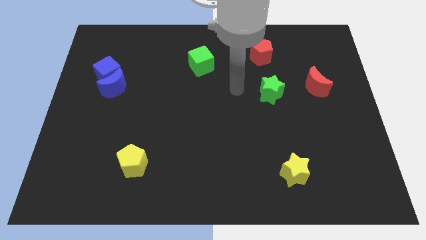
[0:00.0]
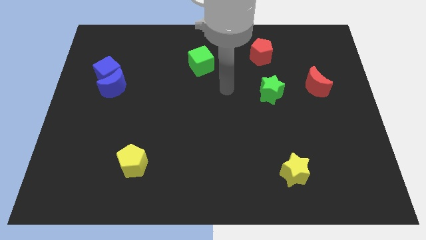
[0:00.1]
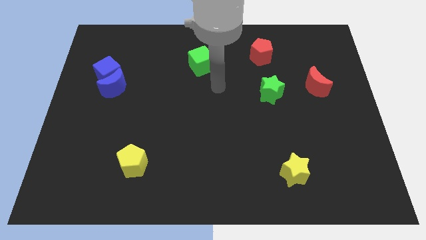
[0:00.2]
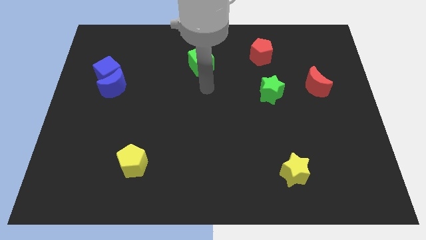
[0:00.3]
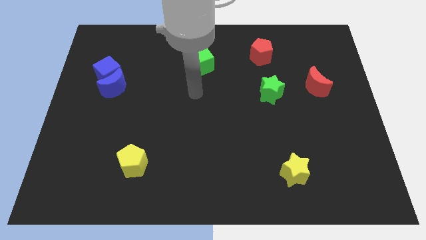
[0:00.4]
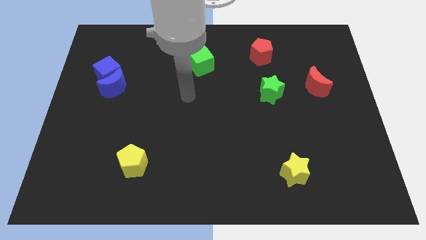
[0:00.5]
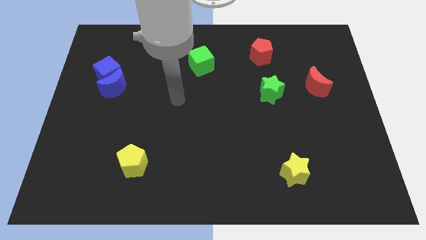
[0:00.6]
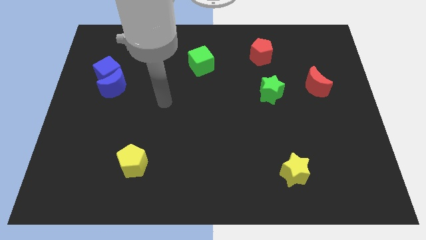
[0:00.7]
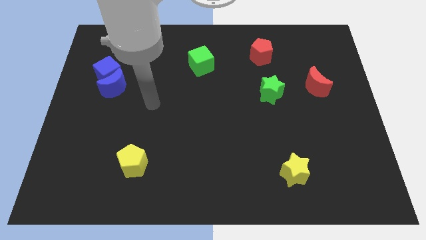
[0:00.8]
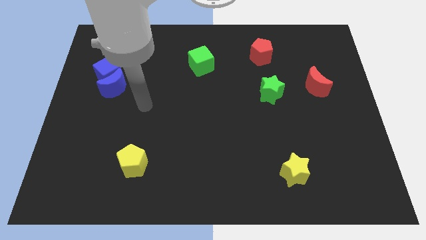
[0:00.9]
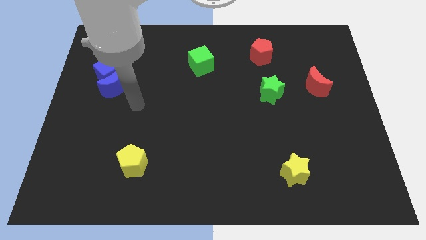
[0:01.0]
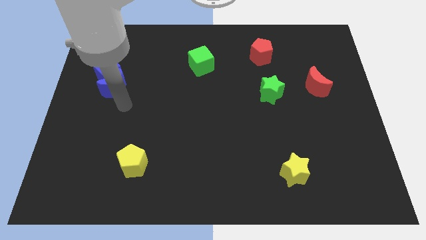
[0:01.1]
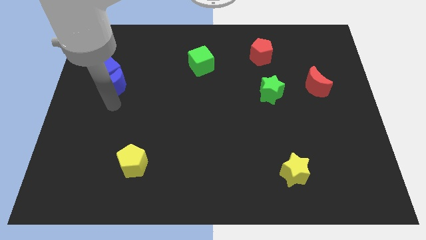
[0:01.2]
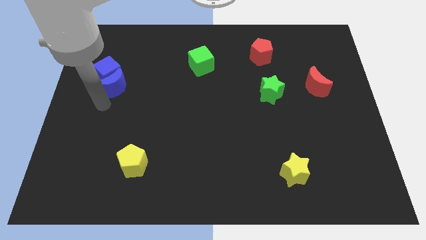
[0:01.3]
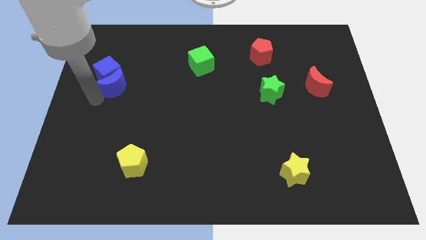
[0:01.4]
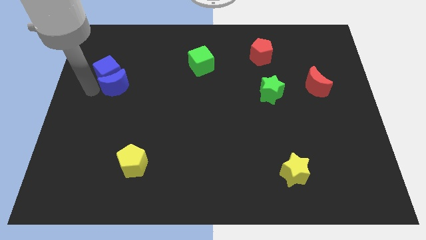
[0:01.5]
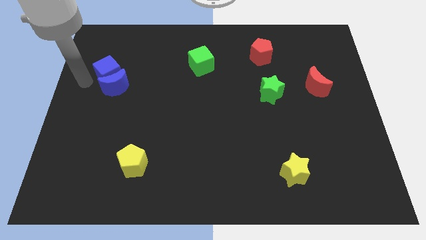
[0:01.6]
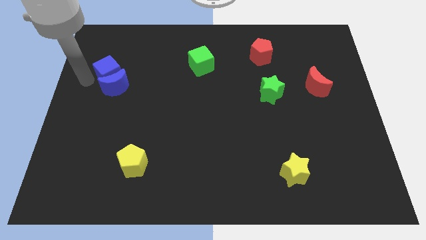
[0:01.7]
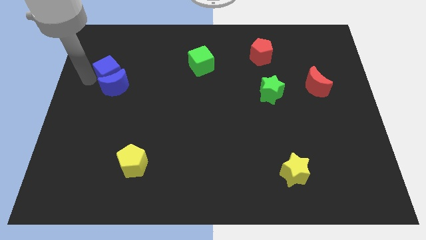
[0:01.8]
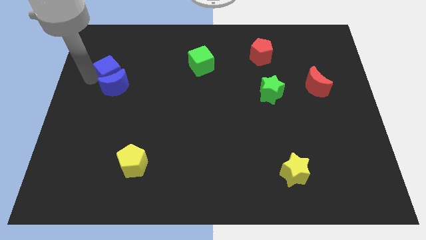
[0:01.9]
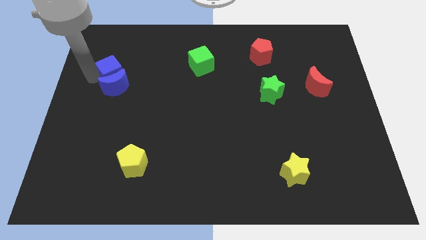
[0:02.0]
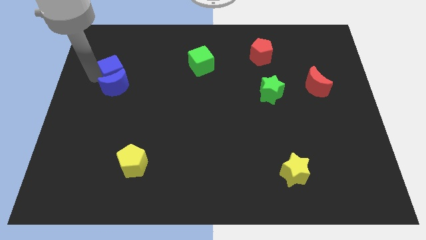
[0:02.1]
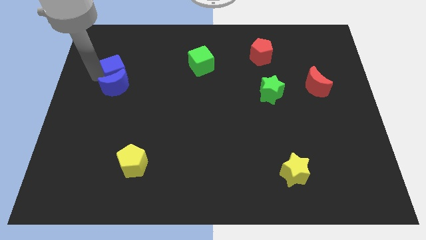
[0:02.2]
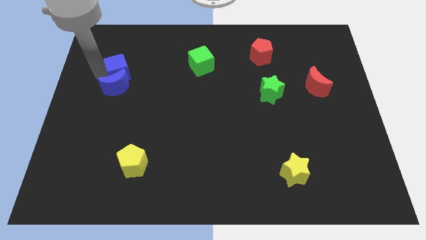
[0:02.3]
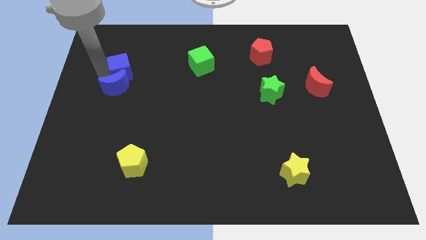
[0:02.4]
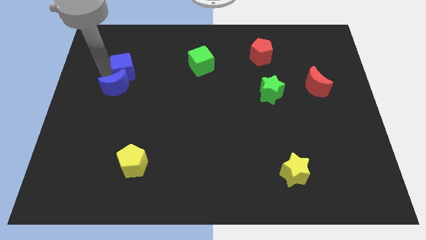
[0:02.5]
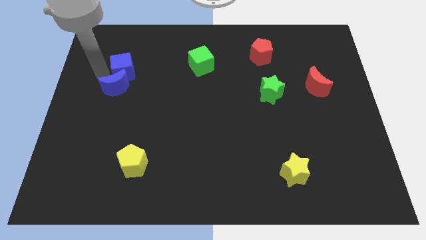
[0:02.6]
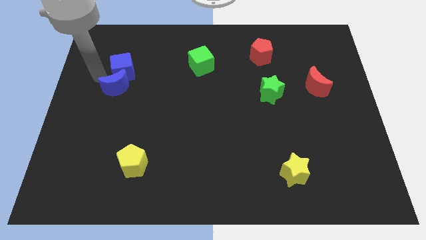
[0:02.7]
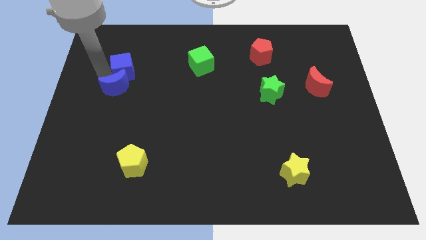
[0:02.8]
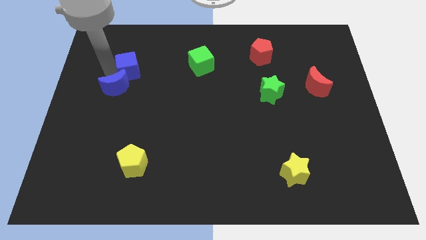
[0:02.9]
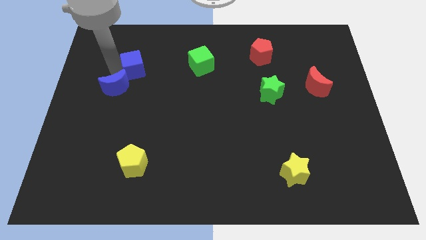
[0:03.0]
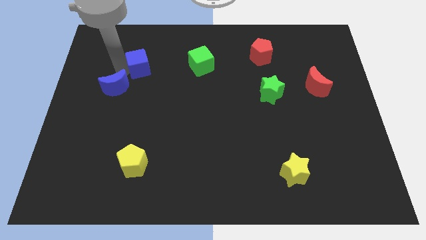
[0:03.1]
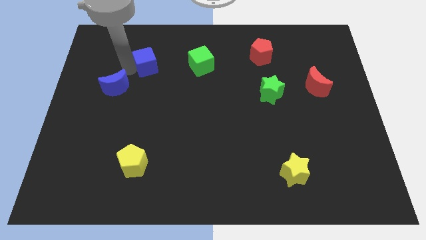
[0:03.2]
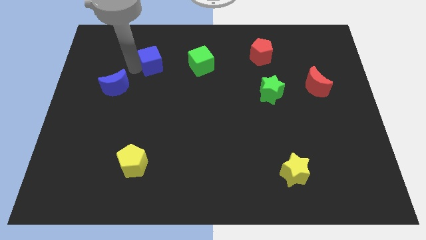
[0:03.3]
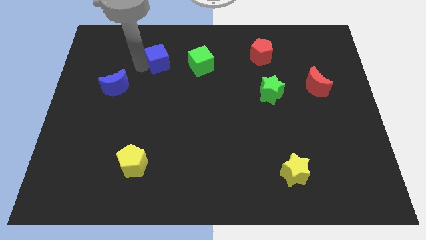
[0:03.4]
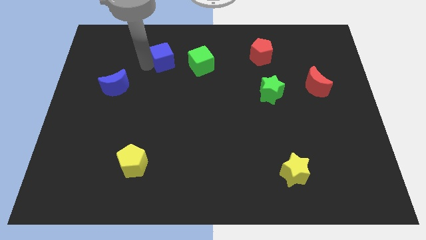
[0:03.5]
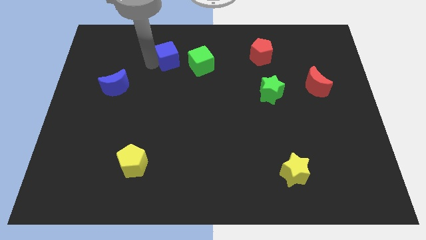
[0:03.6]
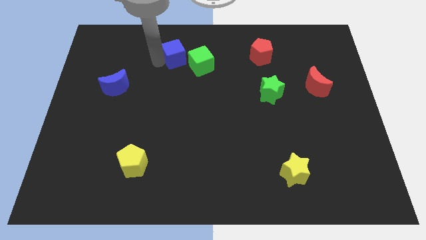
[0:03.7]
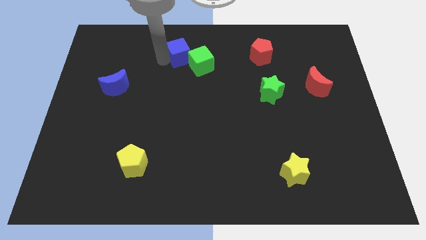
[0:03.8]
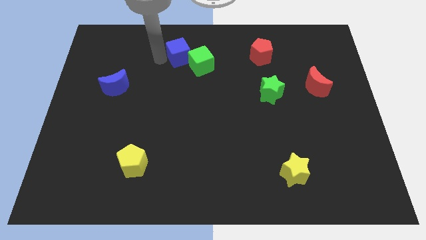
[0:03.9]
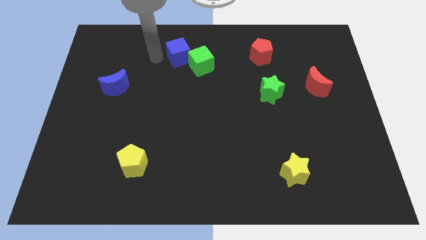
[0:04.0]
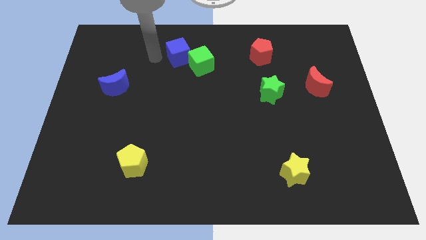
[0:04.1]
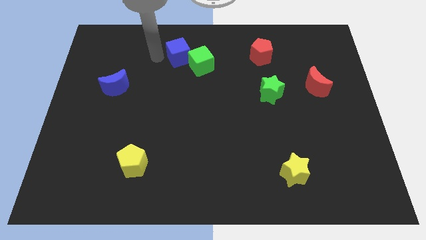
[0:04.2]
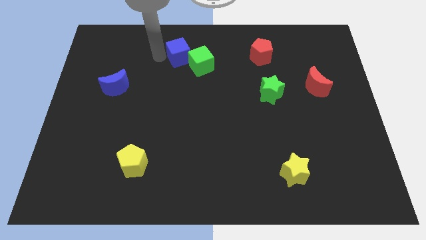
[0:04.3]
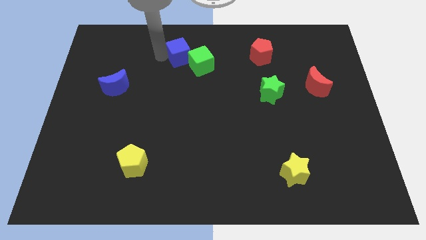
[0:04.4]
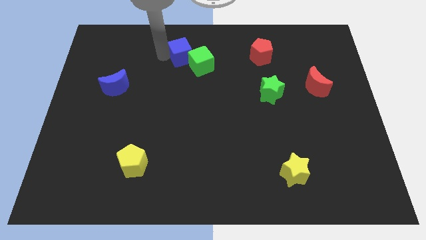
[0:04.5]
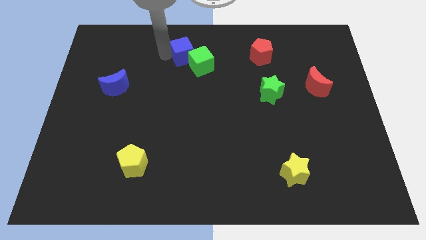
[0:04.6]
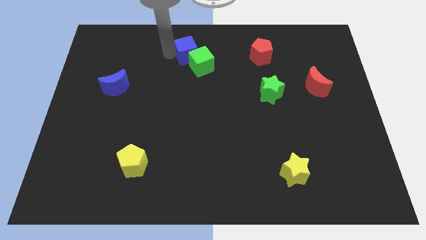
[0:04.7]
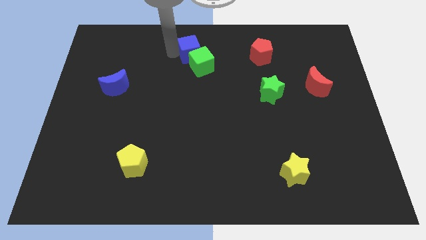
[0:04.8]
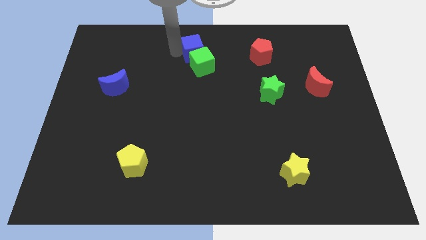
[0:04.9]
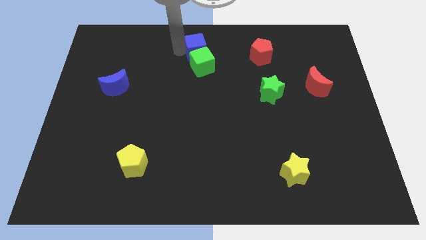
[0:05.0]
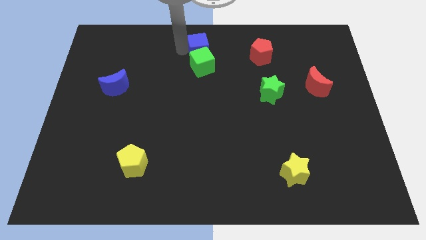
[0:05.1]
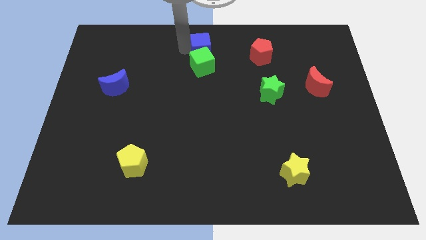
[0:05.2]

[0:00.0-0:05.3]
move the blue cube to the left of the red pentagon

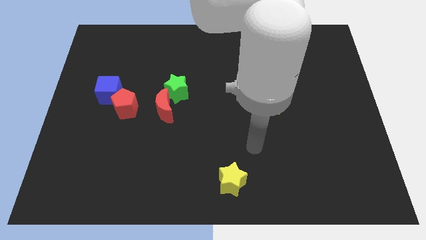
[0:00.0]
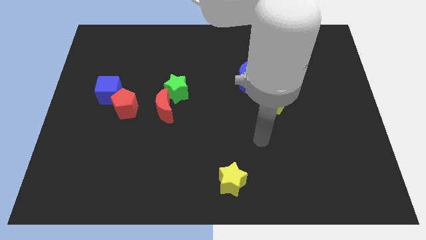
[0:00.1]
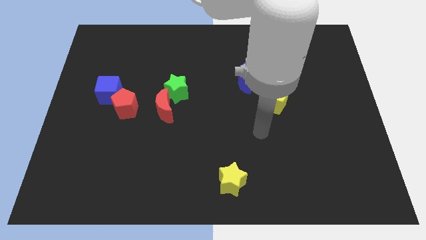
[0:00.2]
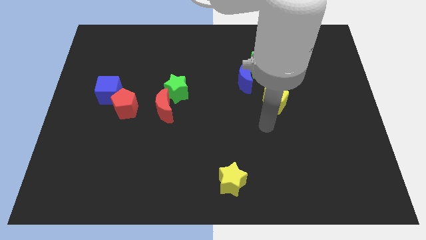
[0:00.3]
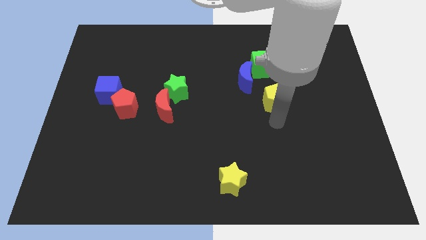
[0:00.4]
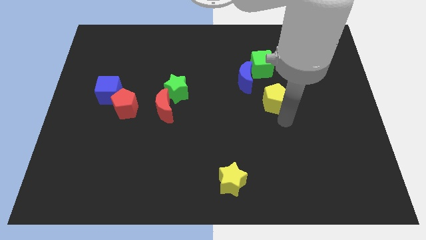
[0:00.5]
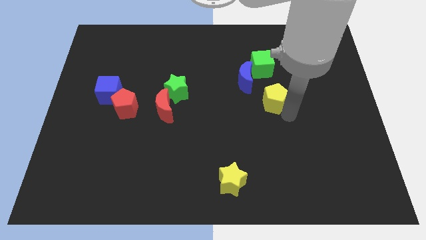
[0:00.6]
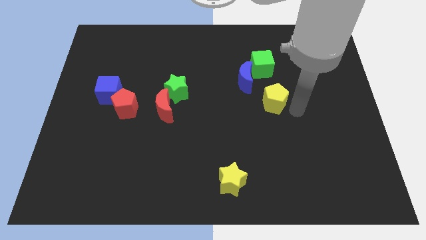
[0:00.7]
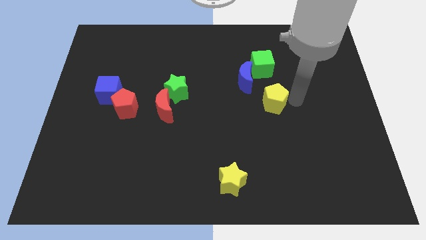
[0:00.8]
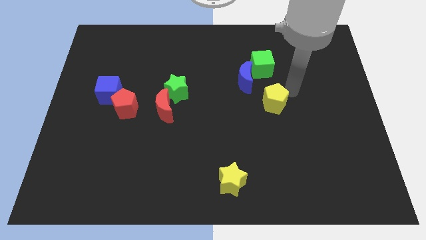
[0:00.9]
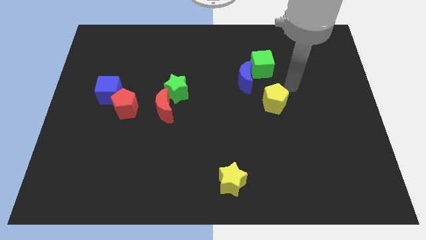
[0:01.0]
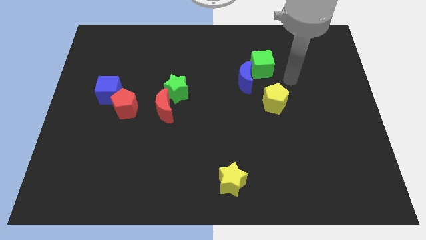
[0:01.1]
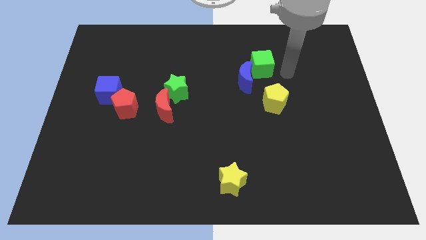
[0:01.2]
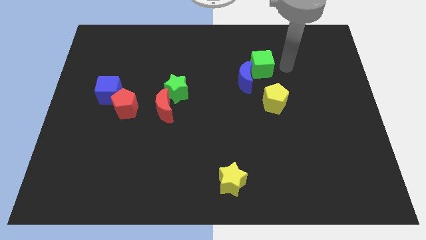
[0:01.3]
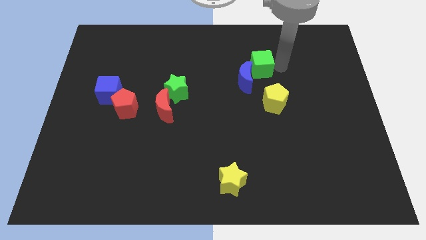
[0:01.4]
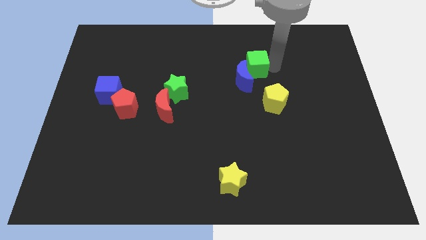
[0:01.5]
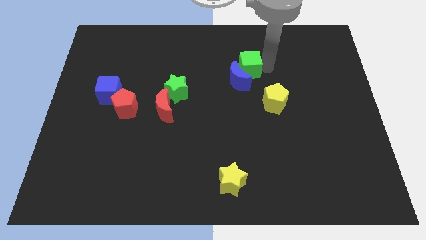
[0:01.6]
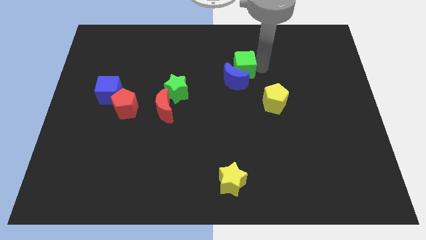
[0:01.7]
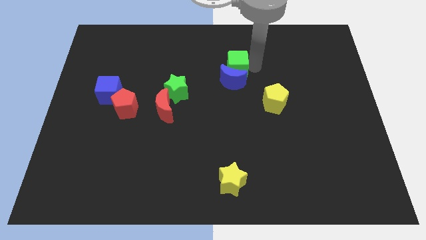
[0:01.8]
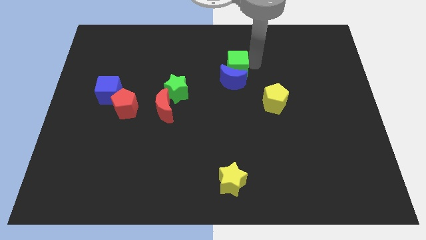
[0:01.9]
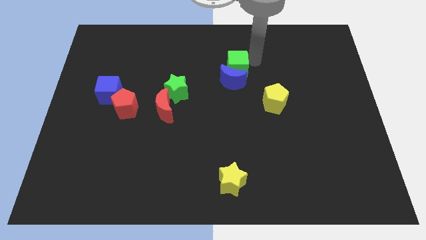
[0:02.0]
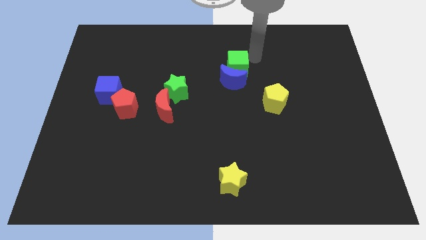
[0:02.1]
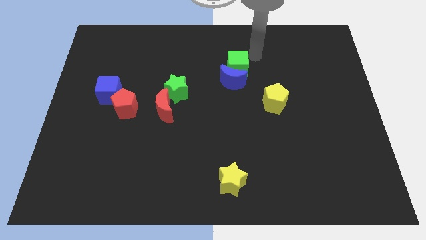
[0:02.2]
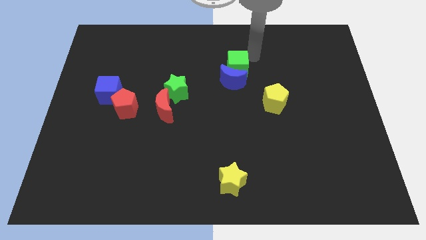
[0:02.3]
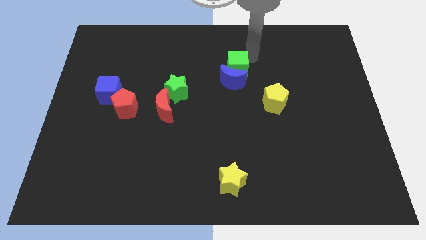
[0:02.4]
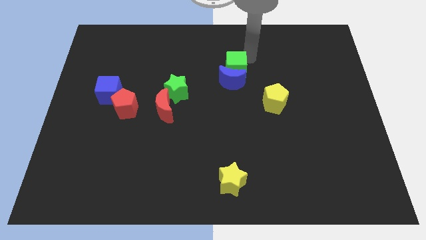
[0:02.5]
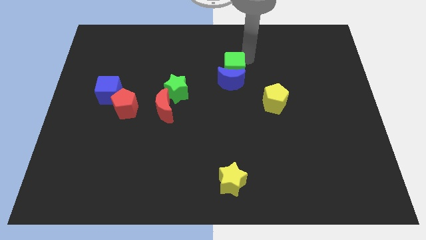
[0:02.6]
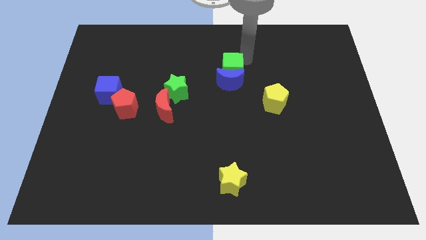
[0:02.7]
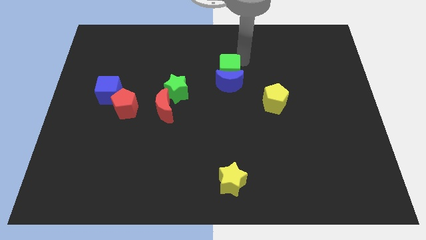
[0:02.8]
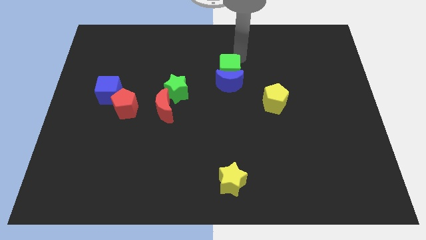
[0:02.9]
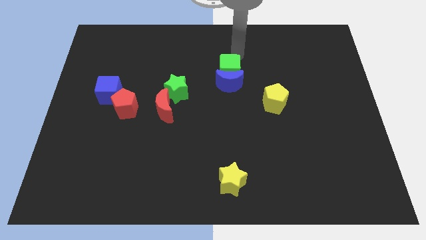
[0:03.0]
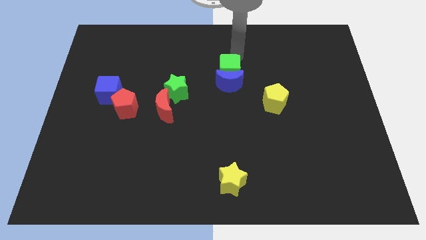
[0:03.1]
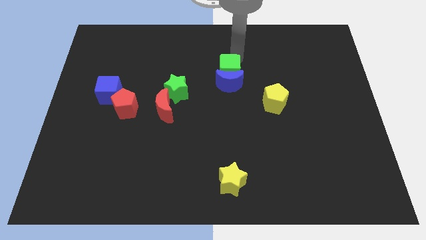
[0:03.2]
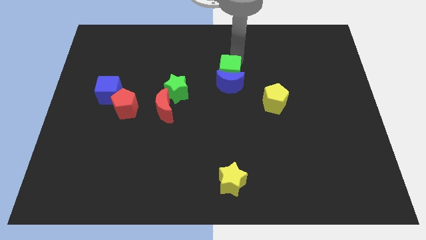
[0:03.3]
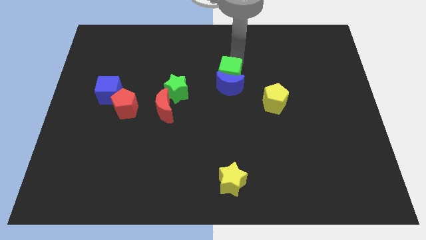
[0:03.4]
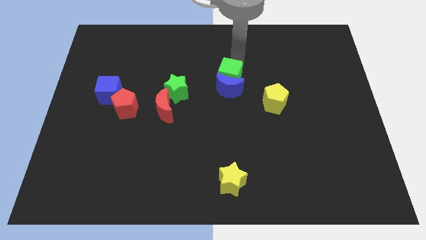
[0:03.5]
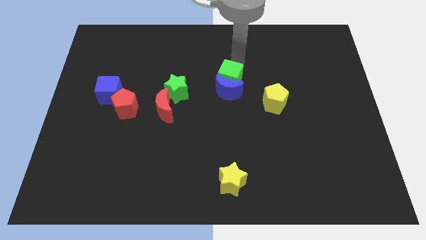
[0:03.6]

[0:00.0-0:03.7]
push the green cube to the right side of the green star
